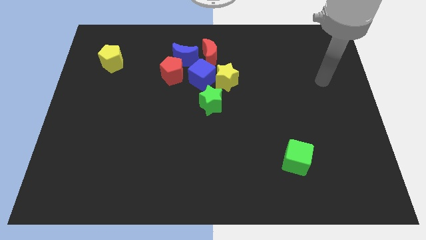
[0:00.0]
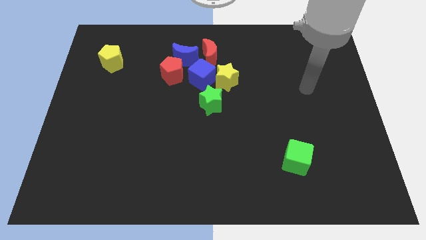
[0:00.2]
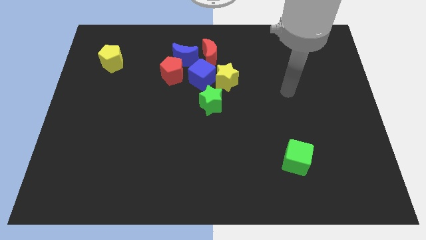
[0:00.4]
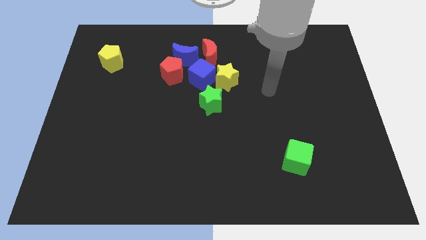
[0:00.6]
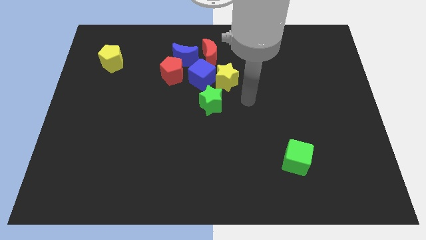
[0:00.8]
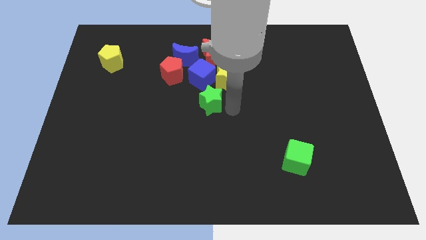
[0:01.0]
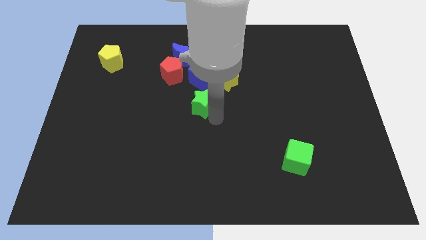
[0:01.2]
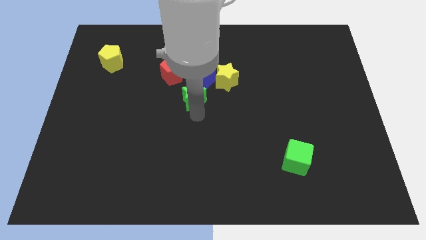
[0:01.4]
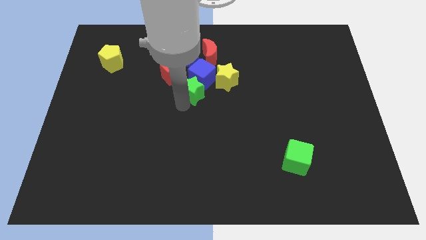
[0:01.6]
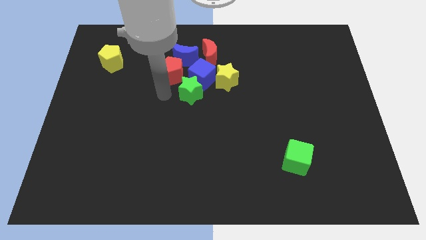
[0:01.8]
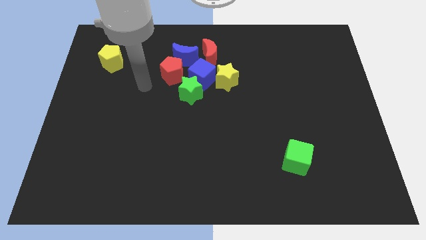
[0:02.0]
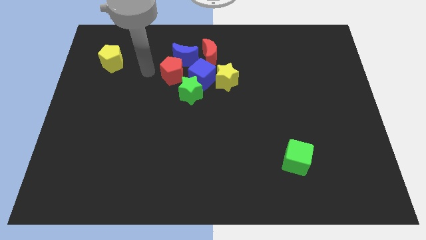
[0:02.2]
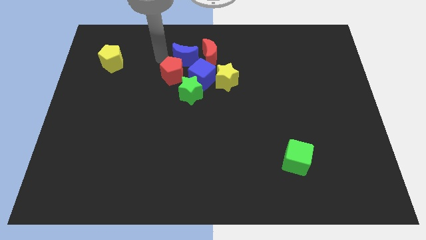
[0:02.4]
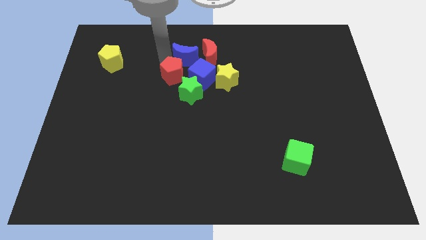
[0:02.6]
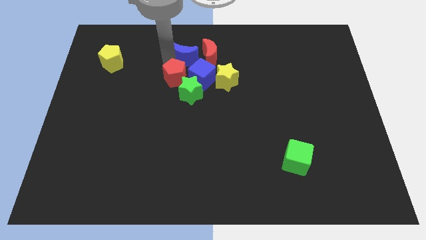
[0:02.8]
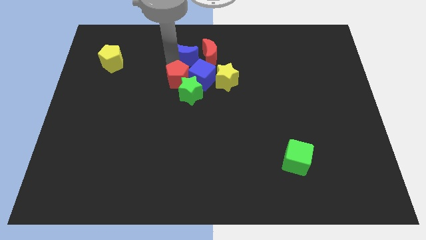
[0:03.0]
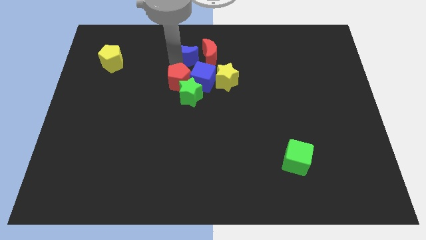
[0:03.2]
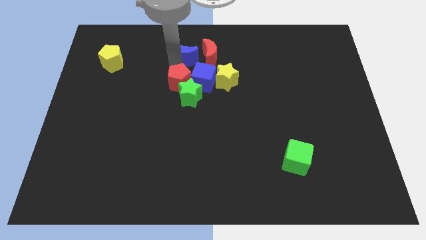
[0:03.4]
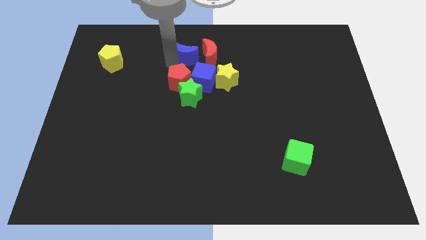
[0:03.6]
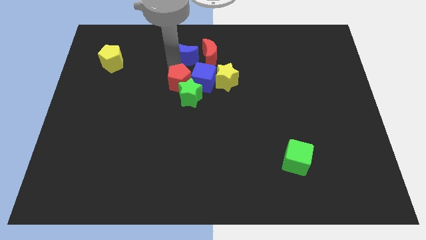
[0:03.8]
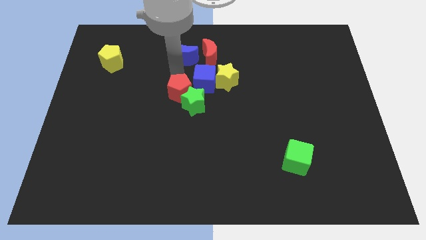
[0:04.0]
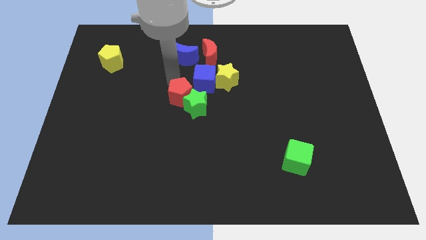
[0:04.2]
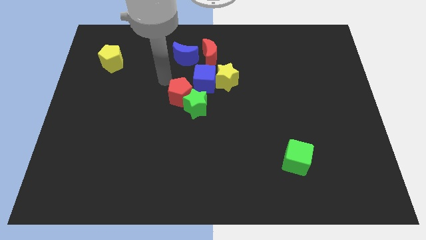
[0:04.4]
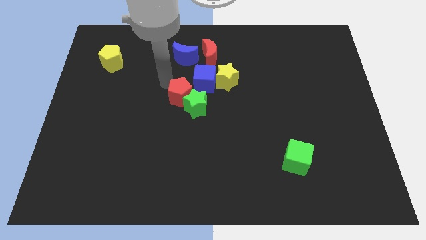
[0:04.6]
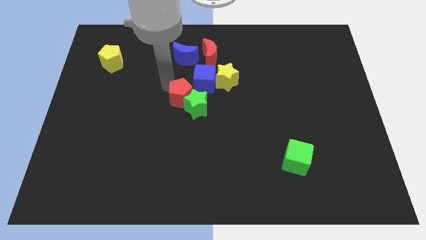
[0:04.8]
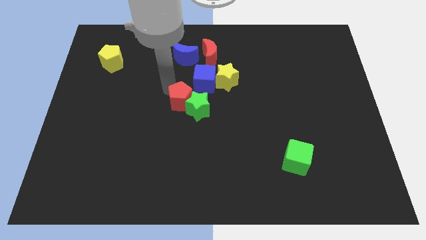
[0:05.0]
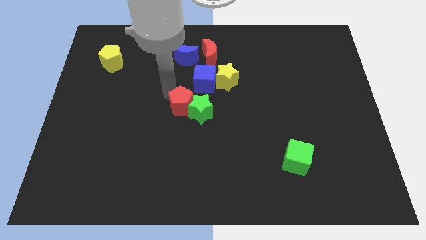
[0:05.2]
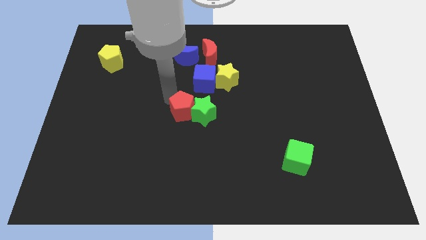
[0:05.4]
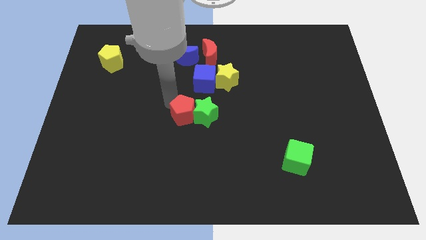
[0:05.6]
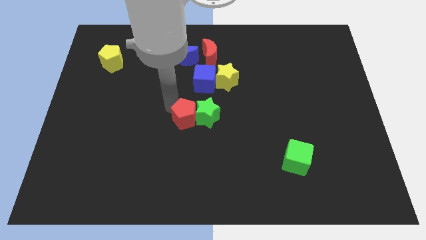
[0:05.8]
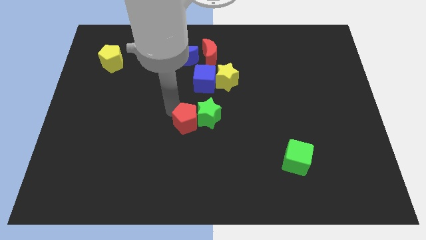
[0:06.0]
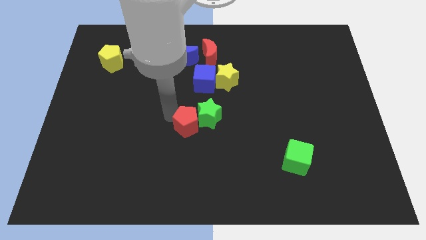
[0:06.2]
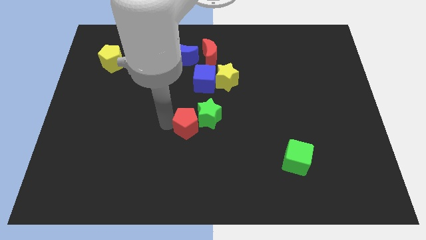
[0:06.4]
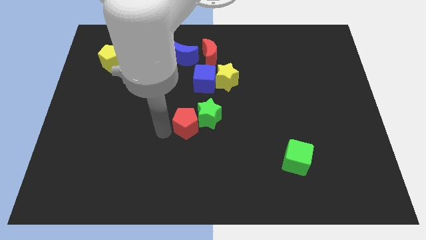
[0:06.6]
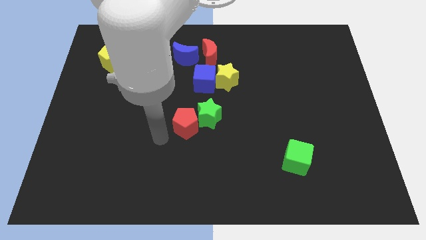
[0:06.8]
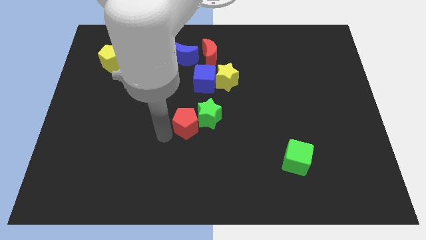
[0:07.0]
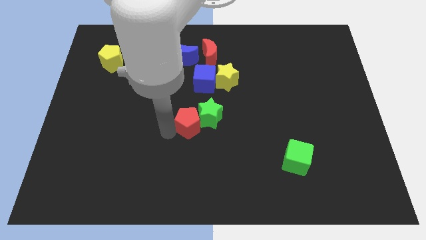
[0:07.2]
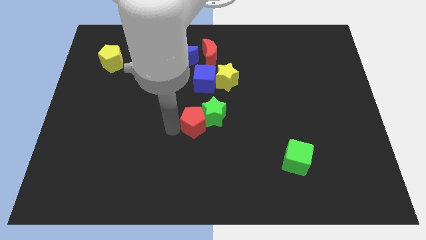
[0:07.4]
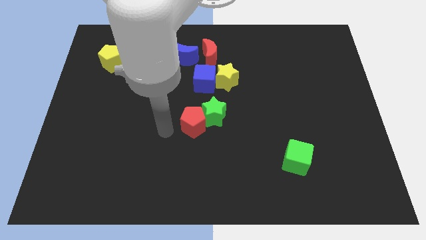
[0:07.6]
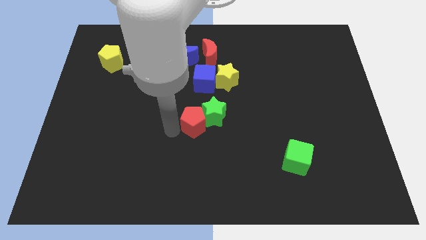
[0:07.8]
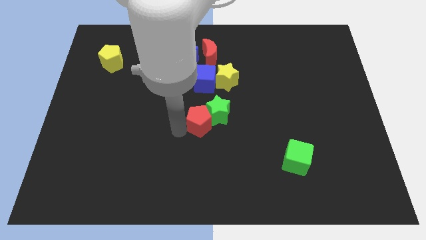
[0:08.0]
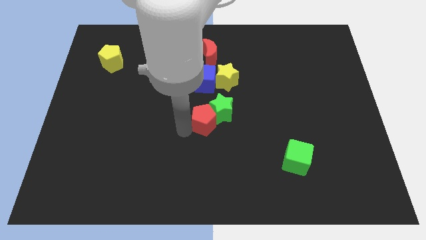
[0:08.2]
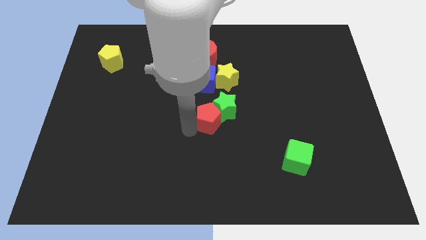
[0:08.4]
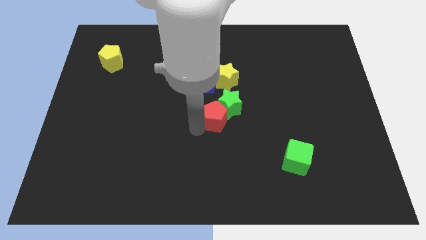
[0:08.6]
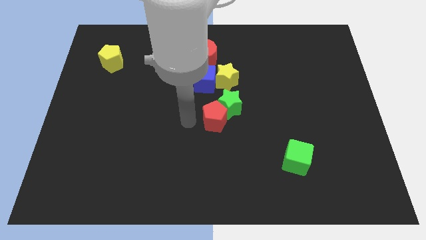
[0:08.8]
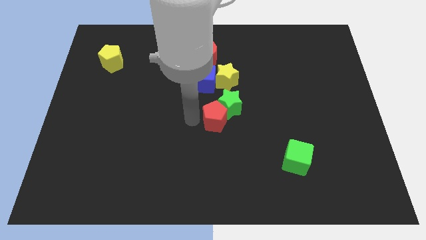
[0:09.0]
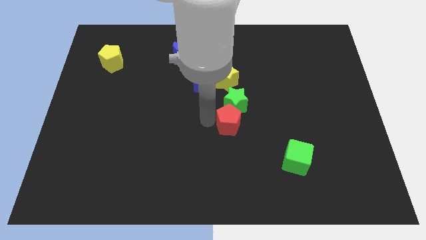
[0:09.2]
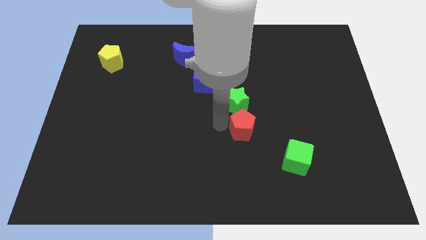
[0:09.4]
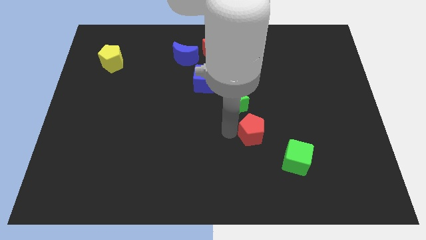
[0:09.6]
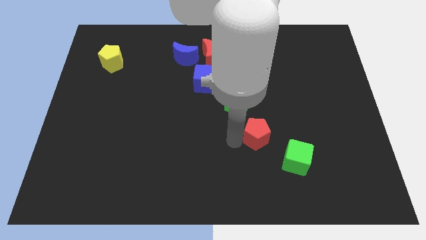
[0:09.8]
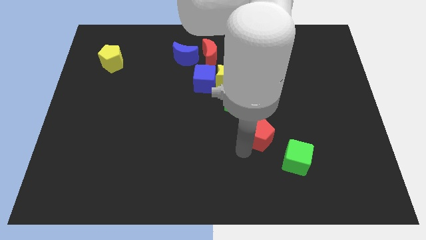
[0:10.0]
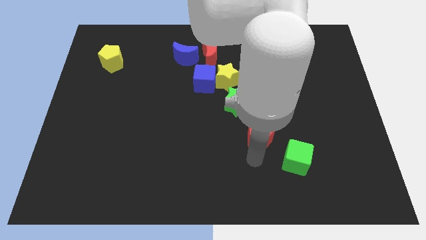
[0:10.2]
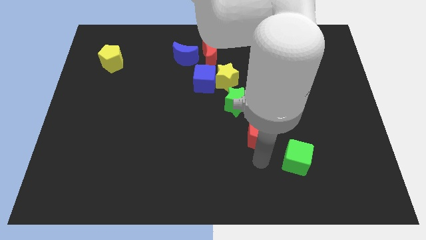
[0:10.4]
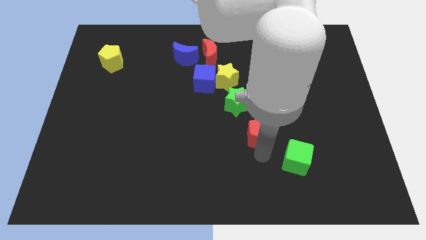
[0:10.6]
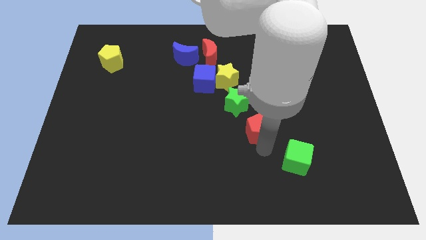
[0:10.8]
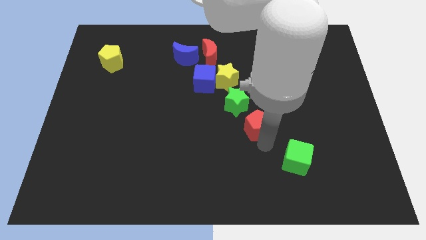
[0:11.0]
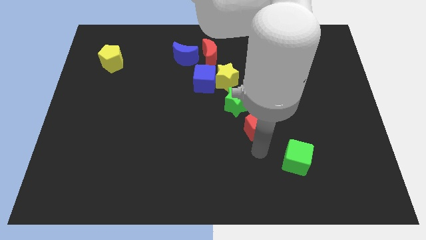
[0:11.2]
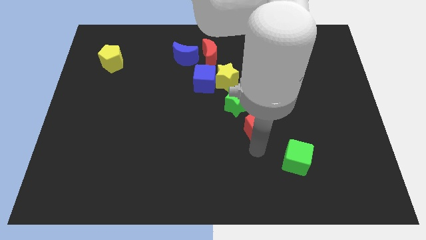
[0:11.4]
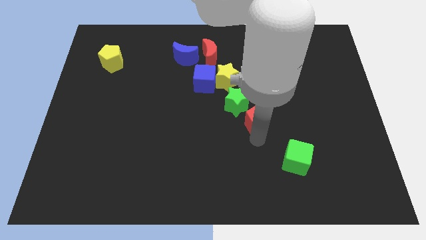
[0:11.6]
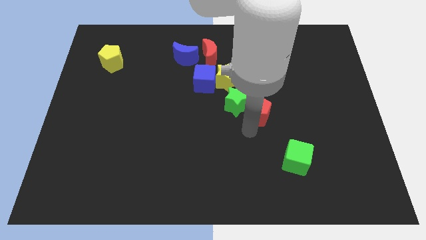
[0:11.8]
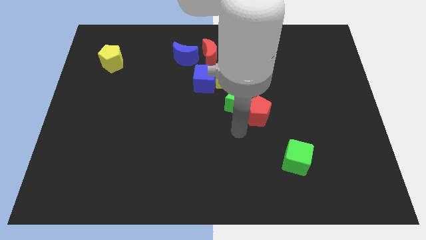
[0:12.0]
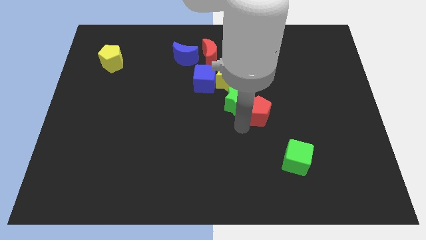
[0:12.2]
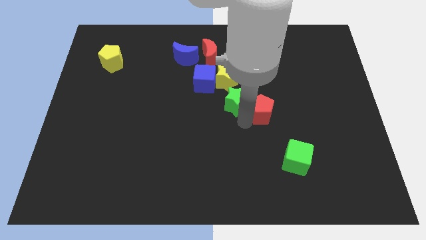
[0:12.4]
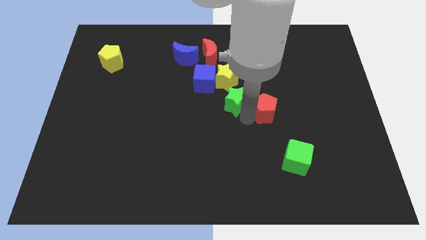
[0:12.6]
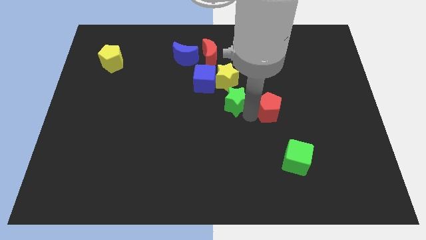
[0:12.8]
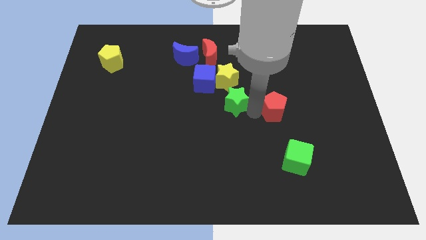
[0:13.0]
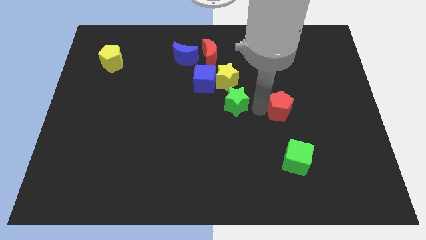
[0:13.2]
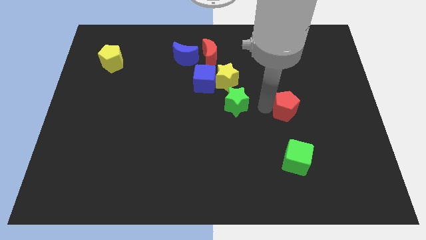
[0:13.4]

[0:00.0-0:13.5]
move the red pentagon right

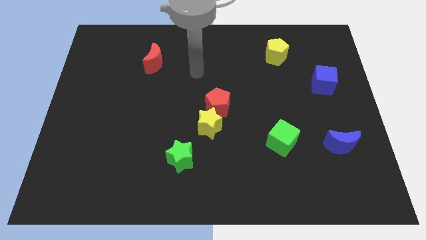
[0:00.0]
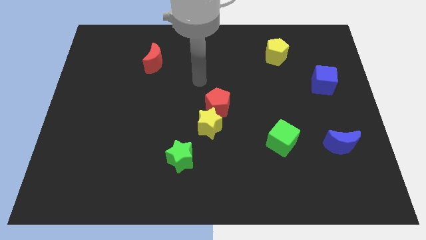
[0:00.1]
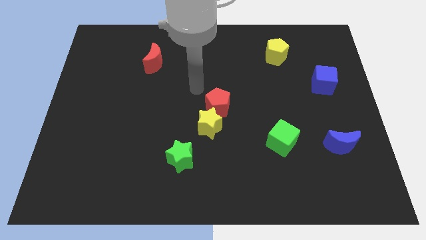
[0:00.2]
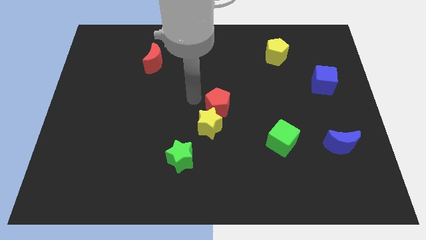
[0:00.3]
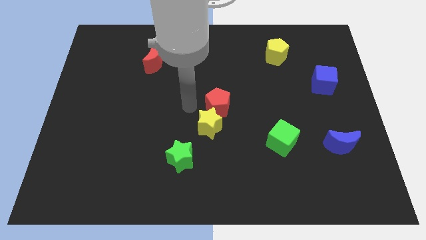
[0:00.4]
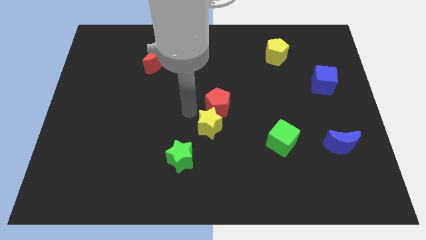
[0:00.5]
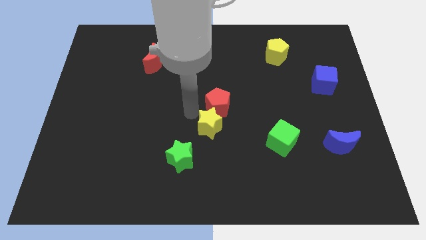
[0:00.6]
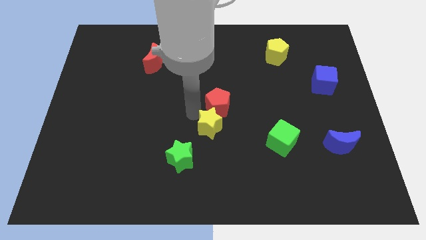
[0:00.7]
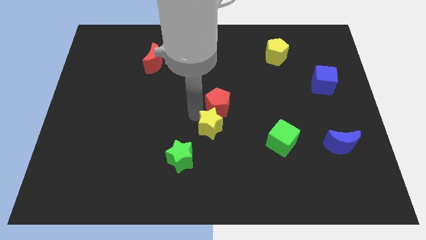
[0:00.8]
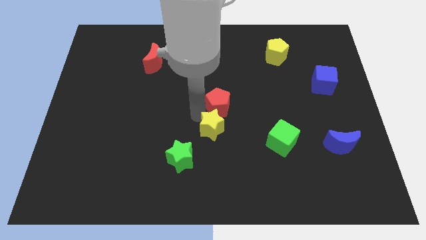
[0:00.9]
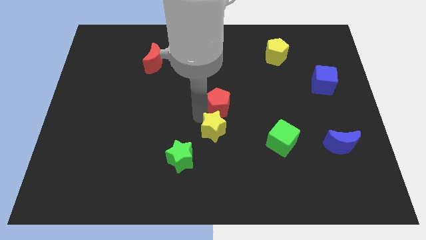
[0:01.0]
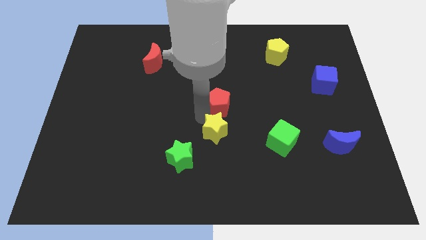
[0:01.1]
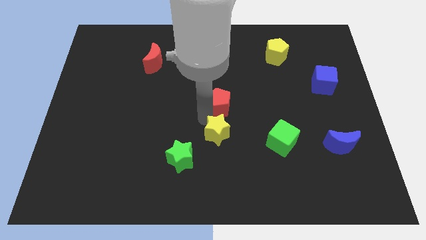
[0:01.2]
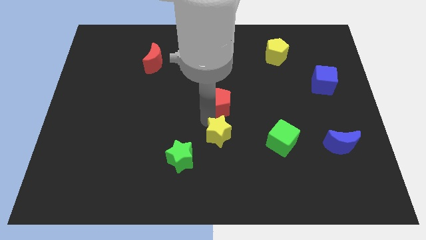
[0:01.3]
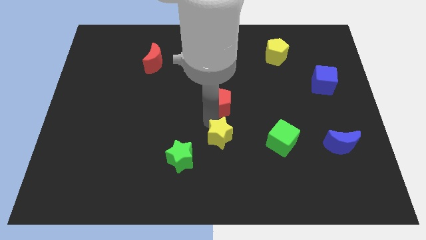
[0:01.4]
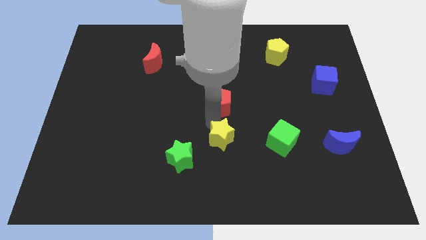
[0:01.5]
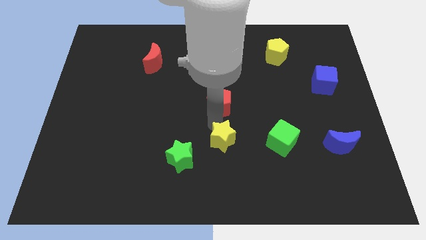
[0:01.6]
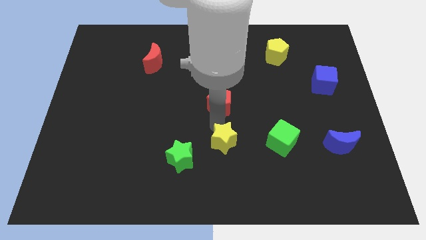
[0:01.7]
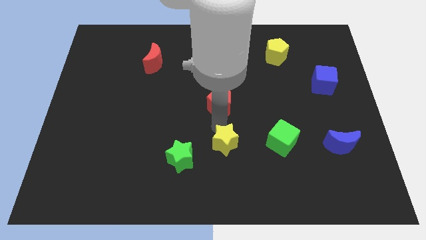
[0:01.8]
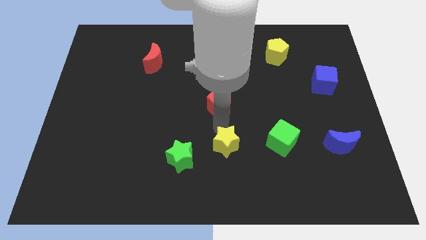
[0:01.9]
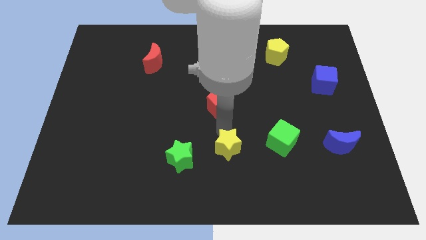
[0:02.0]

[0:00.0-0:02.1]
slide the yellow star slightly diagonally downwards and to the right
